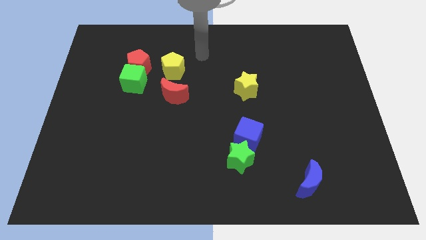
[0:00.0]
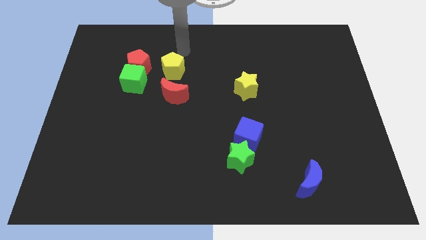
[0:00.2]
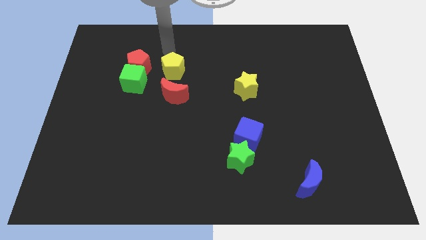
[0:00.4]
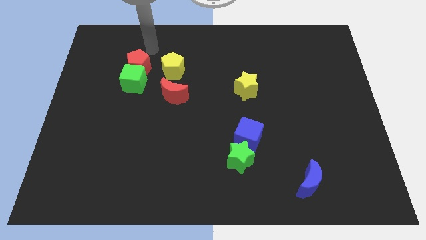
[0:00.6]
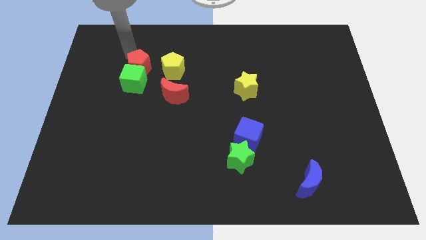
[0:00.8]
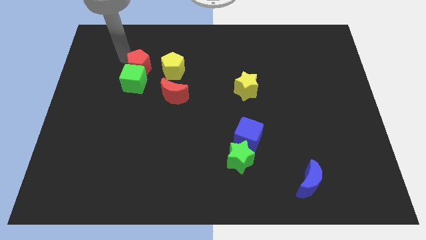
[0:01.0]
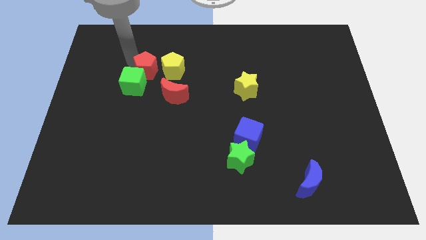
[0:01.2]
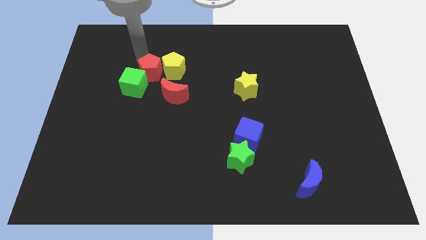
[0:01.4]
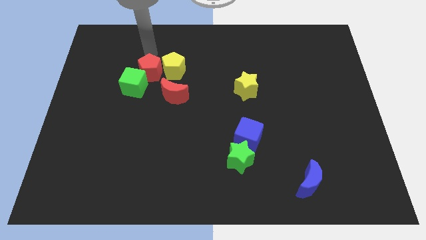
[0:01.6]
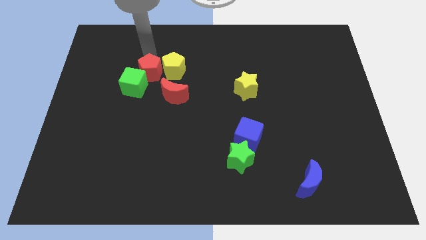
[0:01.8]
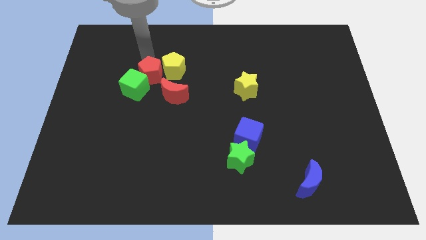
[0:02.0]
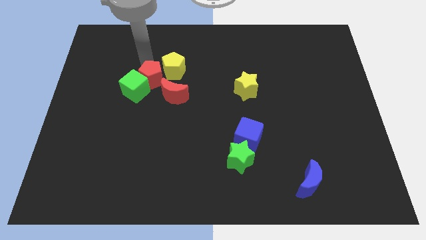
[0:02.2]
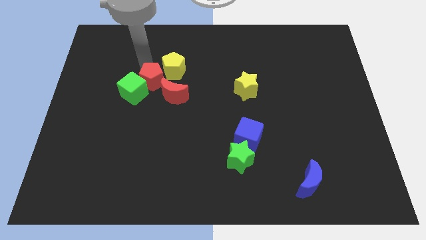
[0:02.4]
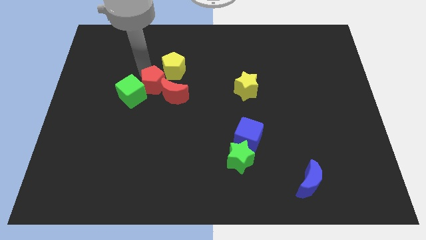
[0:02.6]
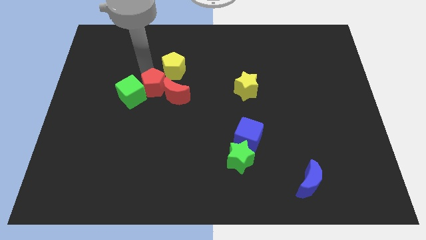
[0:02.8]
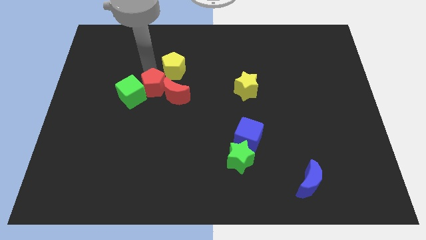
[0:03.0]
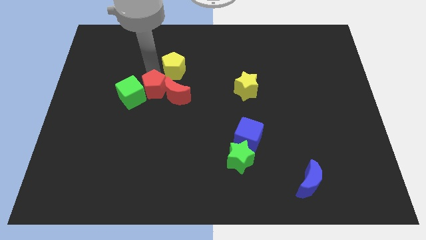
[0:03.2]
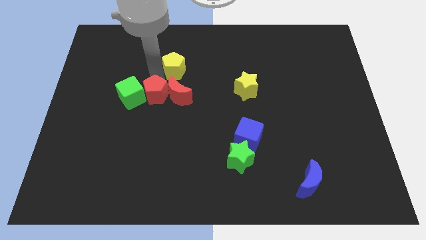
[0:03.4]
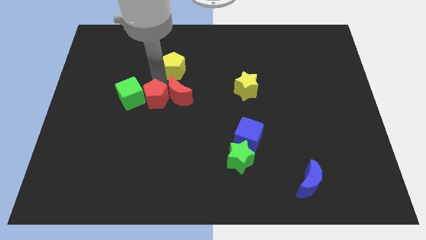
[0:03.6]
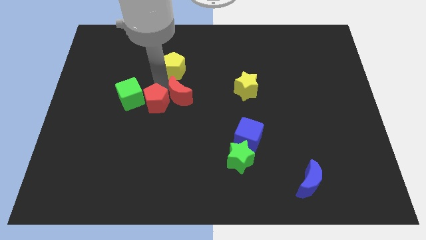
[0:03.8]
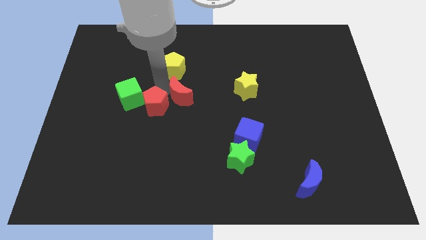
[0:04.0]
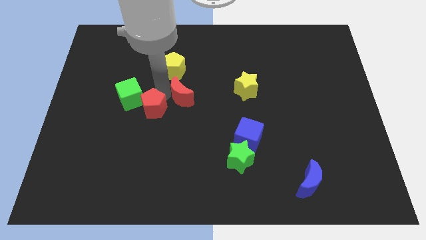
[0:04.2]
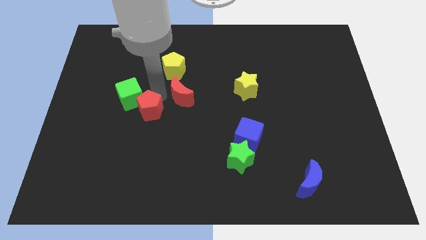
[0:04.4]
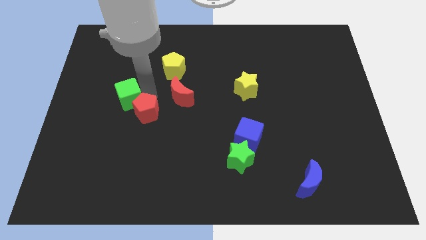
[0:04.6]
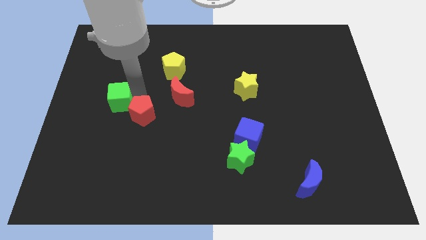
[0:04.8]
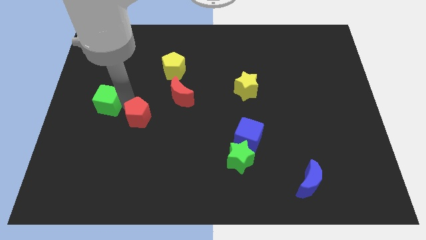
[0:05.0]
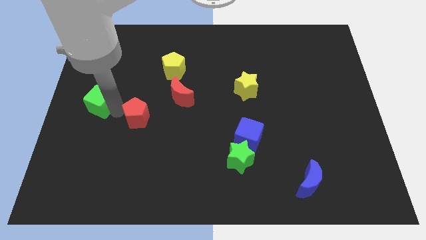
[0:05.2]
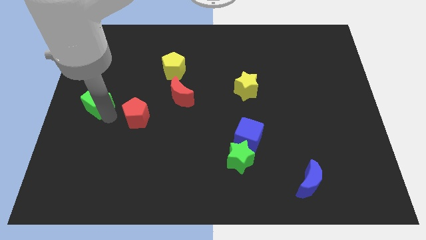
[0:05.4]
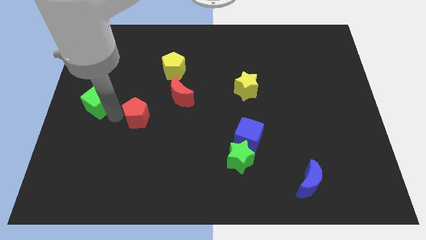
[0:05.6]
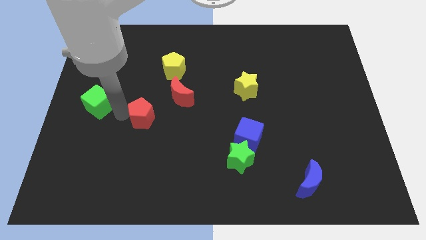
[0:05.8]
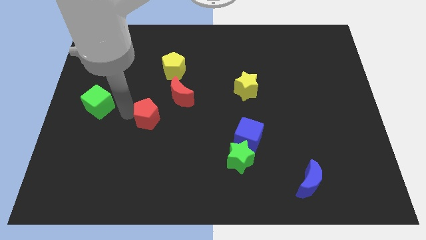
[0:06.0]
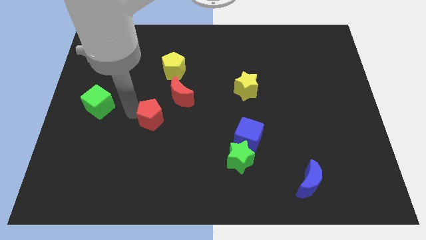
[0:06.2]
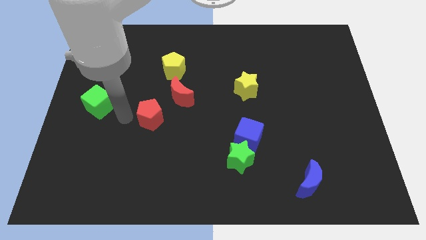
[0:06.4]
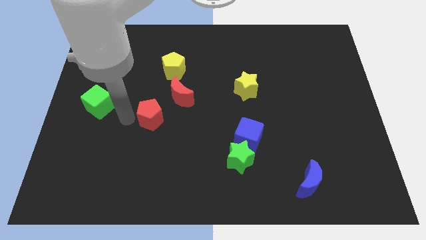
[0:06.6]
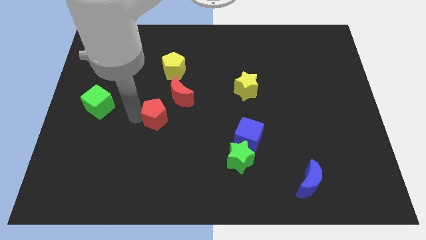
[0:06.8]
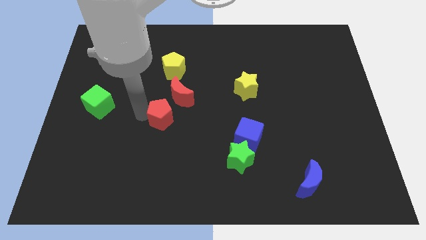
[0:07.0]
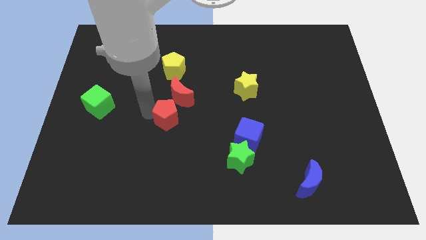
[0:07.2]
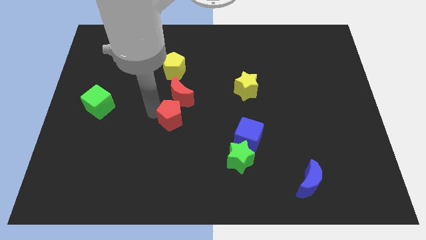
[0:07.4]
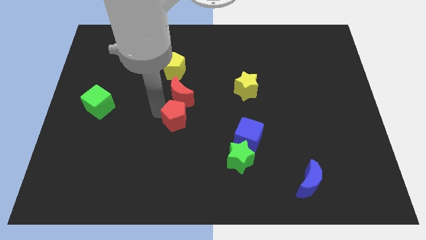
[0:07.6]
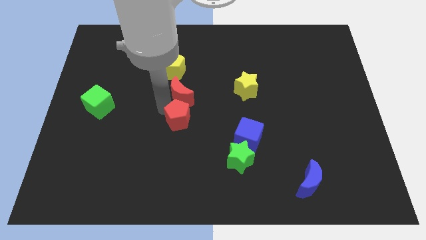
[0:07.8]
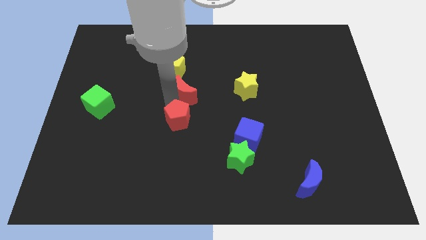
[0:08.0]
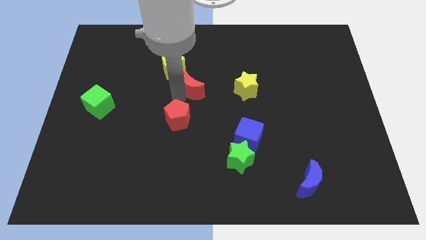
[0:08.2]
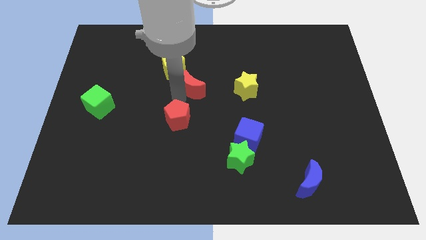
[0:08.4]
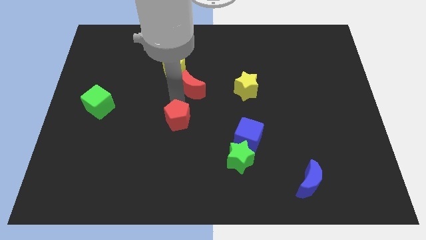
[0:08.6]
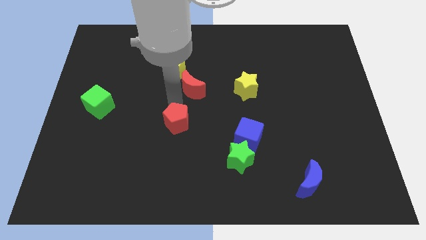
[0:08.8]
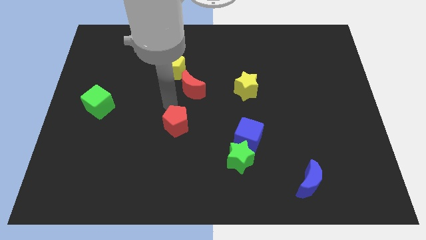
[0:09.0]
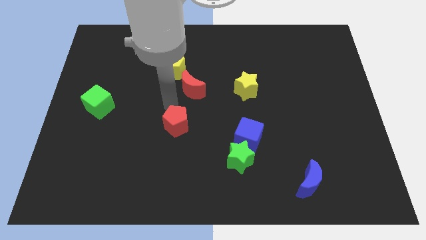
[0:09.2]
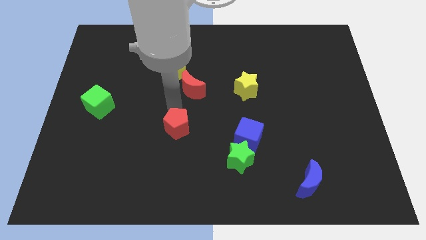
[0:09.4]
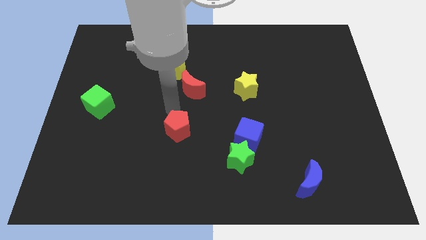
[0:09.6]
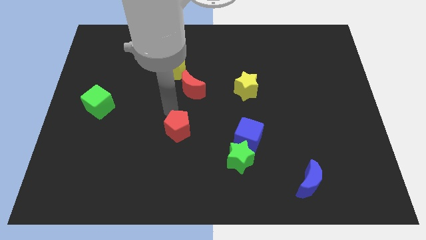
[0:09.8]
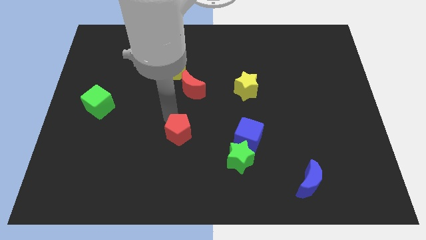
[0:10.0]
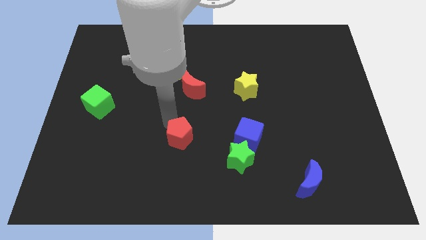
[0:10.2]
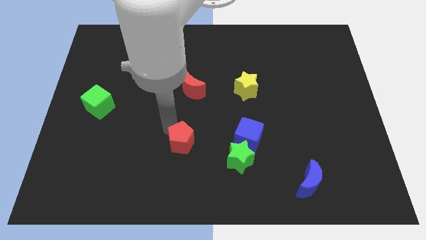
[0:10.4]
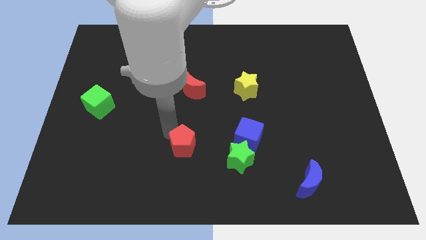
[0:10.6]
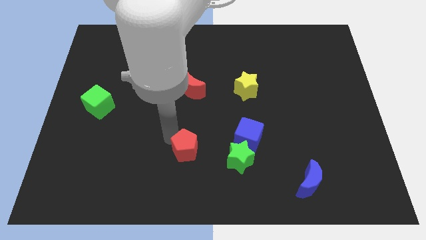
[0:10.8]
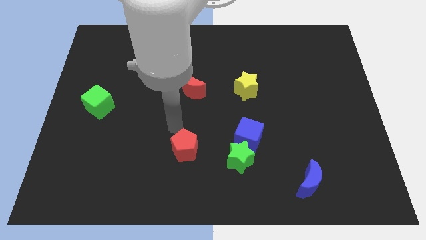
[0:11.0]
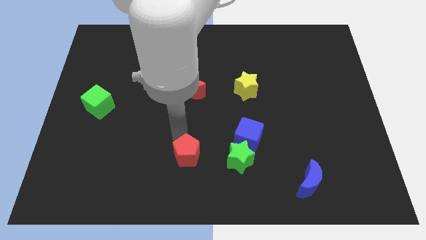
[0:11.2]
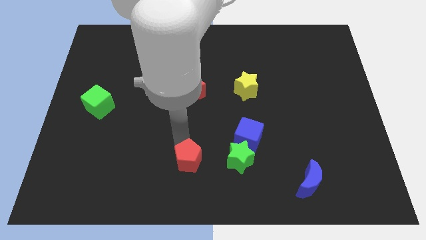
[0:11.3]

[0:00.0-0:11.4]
push the red pentagon to the bottom side
